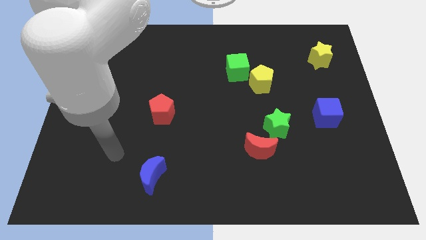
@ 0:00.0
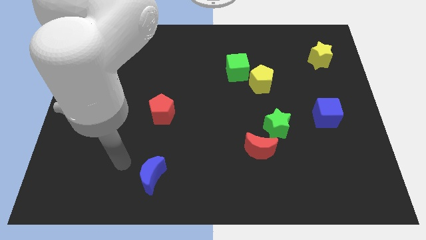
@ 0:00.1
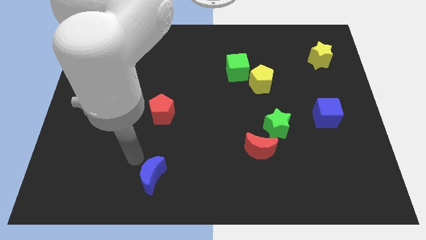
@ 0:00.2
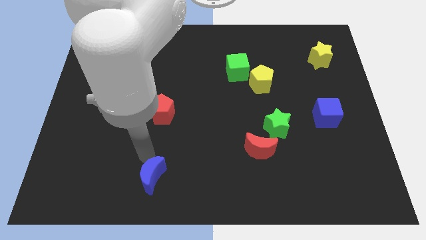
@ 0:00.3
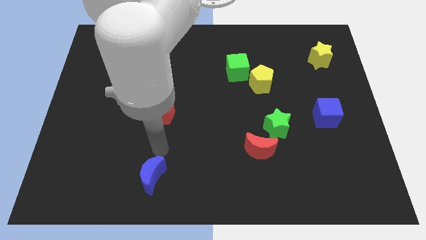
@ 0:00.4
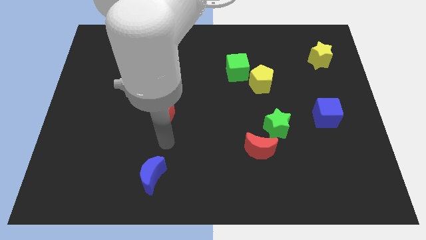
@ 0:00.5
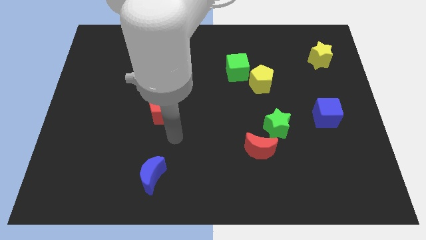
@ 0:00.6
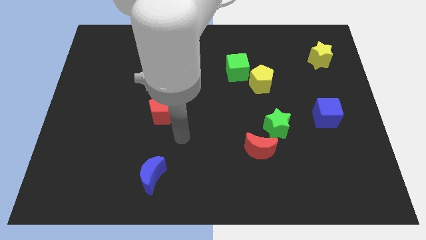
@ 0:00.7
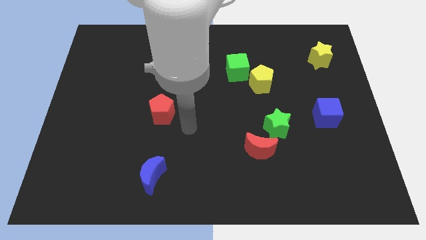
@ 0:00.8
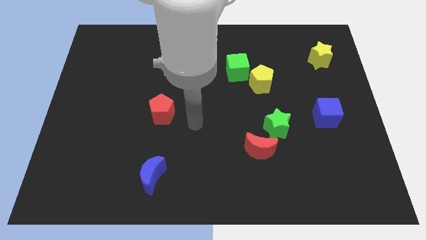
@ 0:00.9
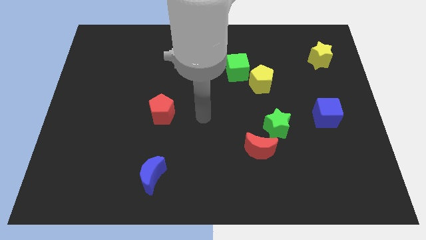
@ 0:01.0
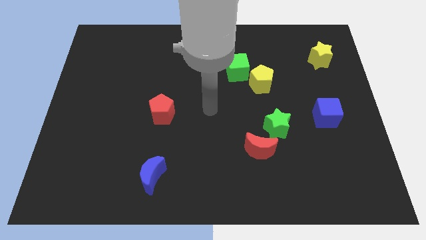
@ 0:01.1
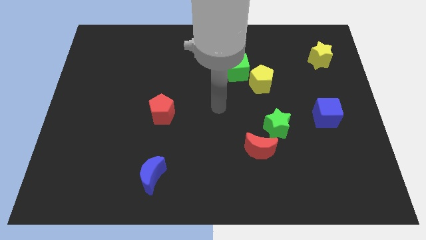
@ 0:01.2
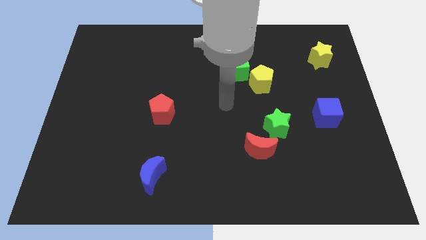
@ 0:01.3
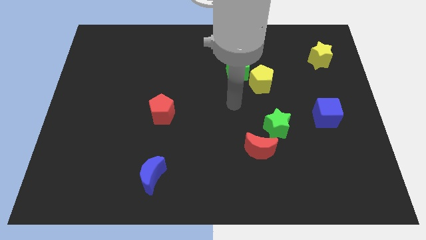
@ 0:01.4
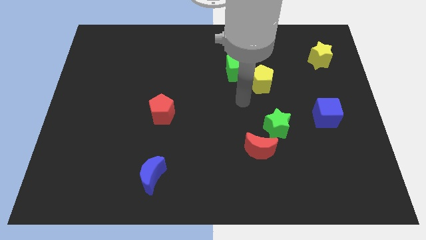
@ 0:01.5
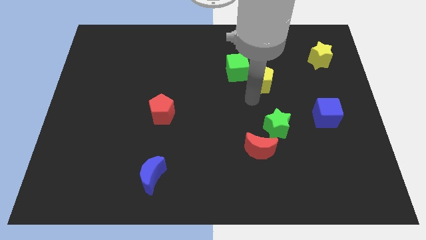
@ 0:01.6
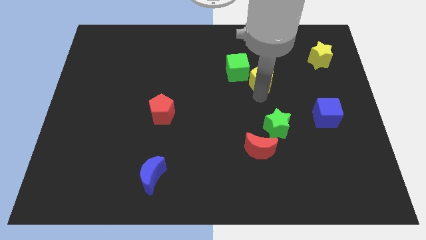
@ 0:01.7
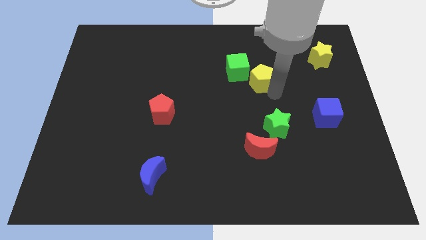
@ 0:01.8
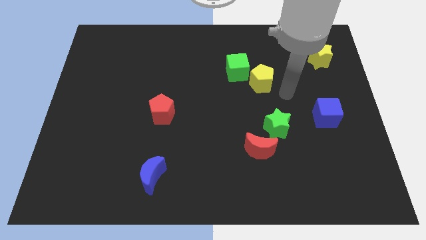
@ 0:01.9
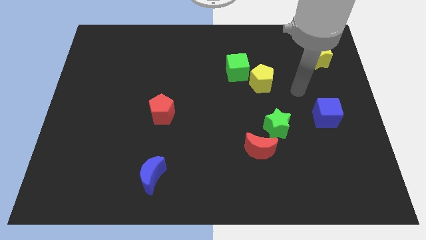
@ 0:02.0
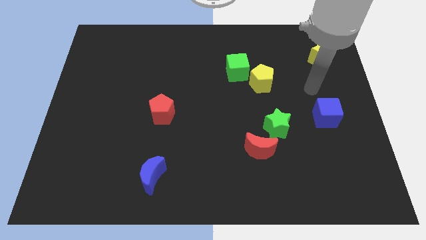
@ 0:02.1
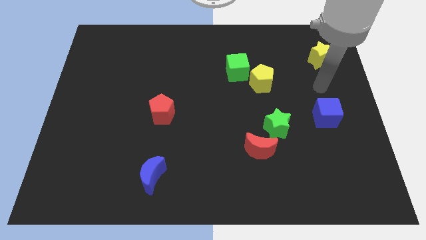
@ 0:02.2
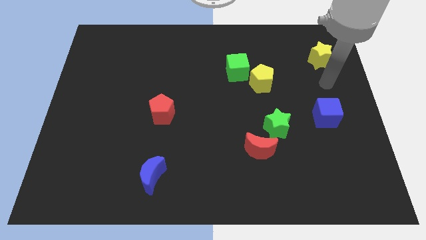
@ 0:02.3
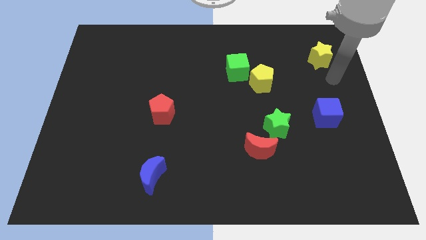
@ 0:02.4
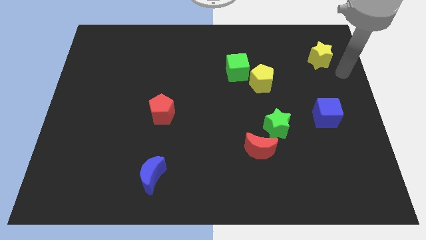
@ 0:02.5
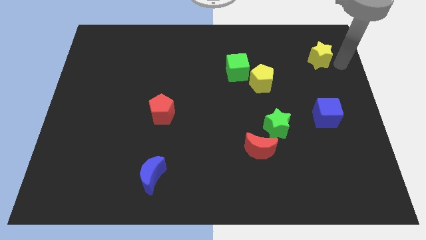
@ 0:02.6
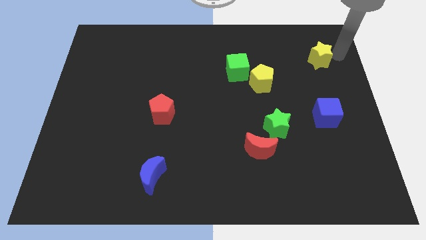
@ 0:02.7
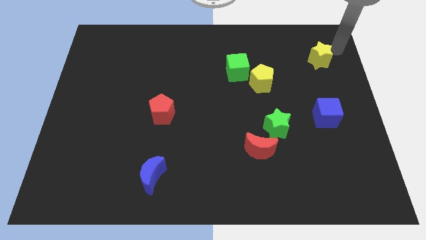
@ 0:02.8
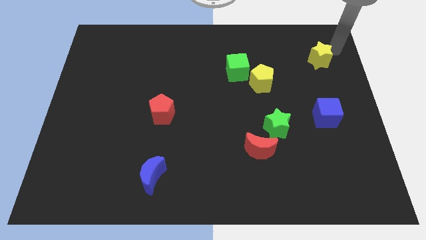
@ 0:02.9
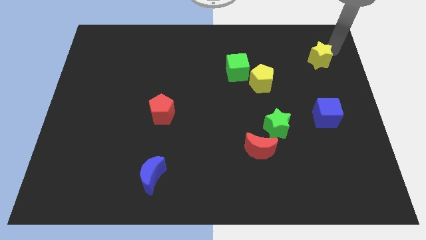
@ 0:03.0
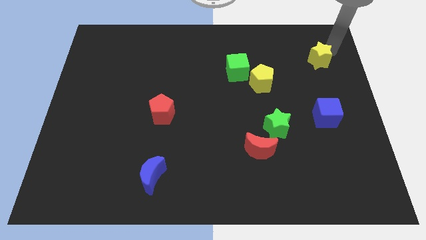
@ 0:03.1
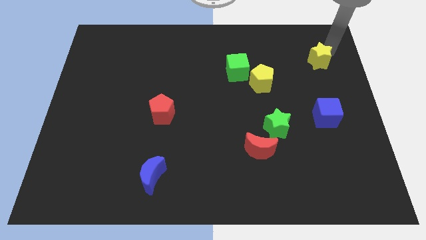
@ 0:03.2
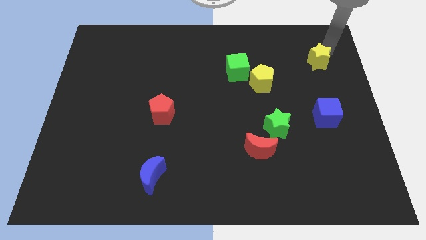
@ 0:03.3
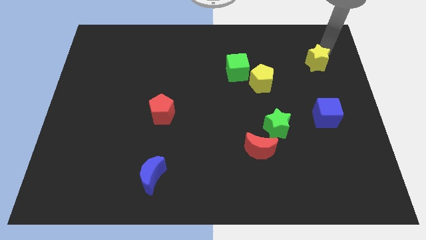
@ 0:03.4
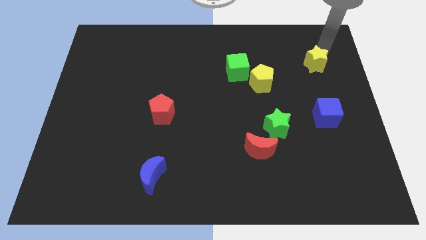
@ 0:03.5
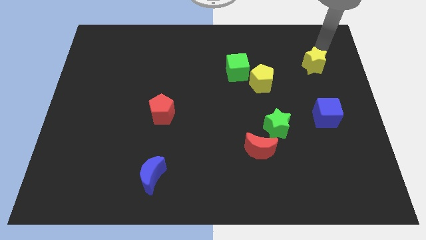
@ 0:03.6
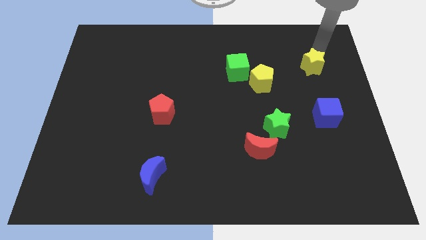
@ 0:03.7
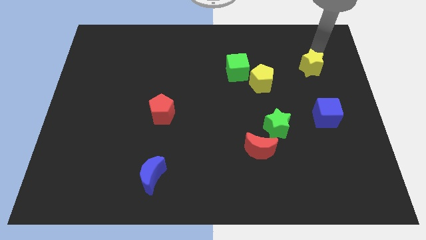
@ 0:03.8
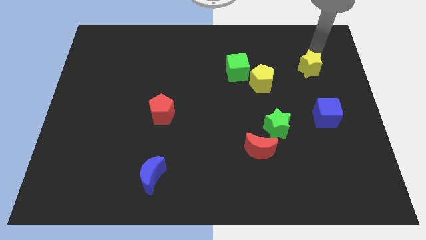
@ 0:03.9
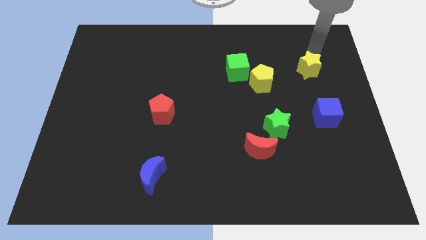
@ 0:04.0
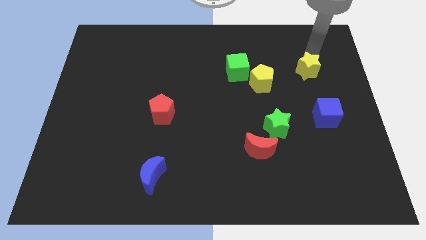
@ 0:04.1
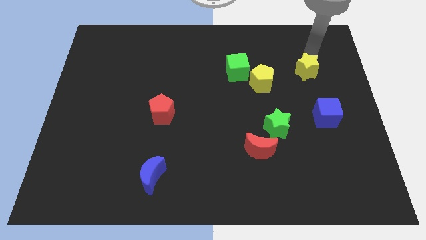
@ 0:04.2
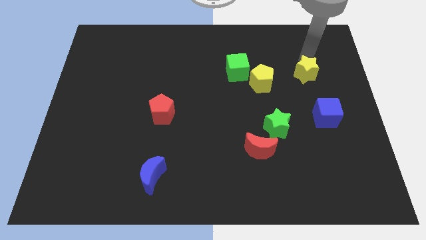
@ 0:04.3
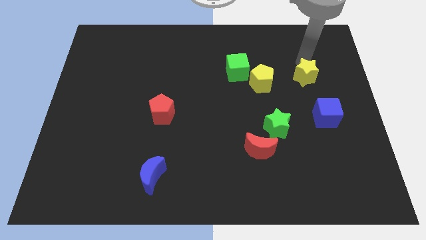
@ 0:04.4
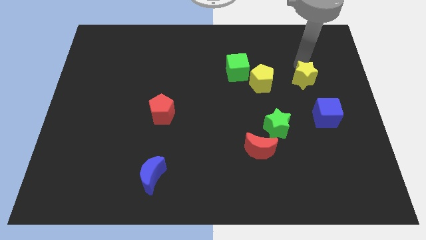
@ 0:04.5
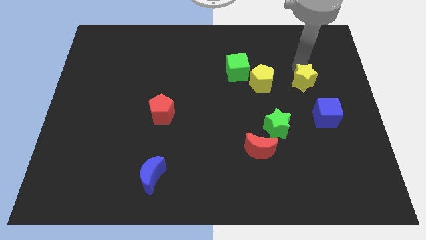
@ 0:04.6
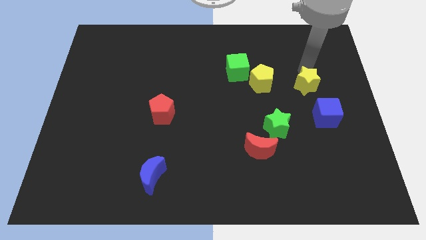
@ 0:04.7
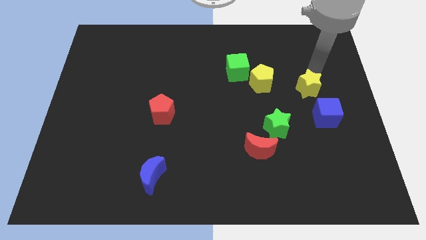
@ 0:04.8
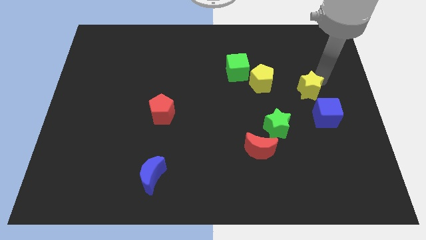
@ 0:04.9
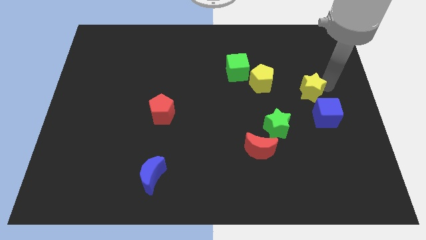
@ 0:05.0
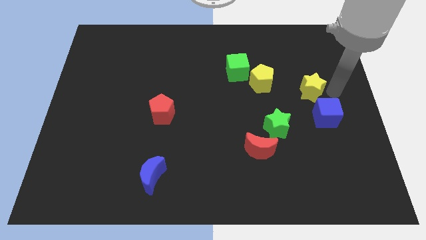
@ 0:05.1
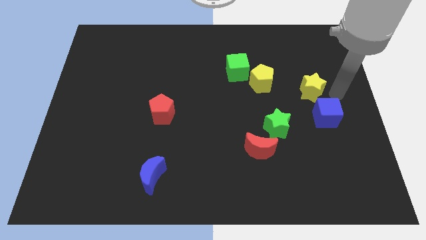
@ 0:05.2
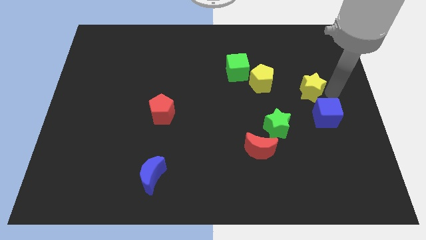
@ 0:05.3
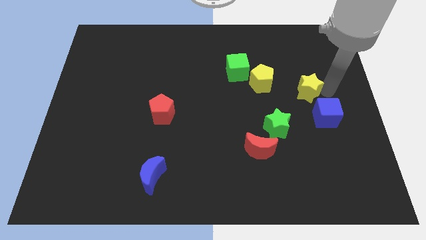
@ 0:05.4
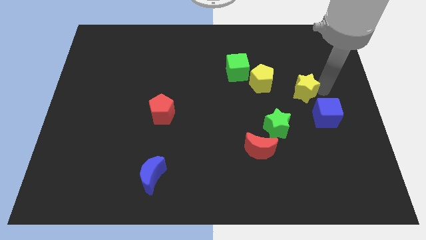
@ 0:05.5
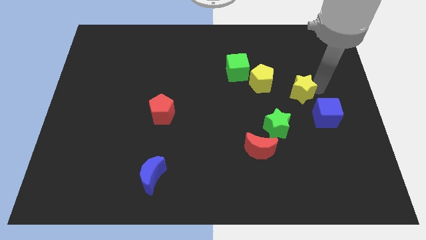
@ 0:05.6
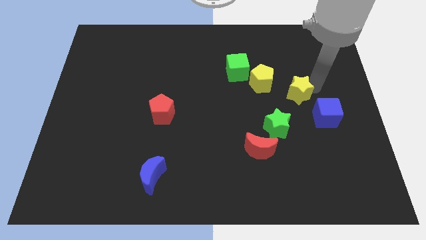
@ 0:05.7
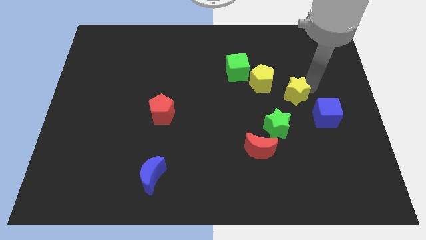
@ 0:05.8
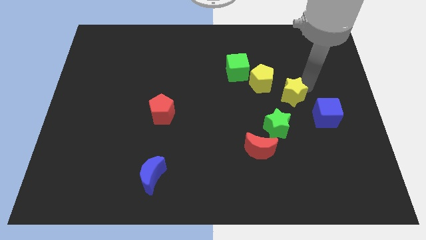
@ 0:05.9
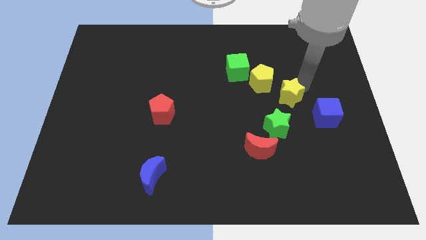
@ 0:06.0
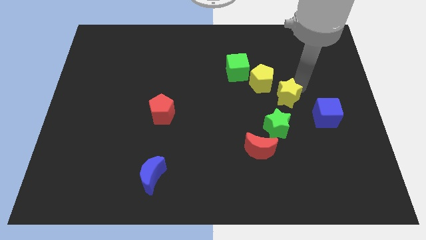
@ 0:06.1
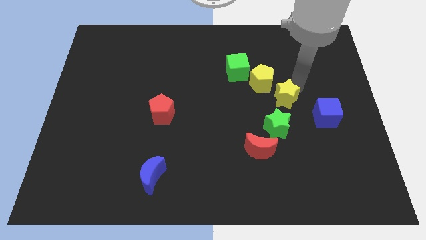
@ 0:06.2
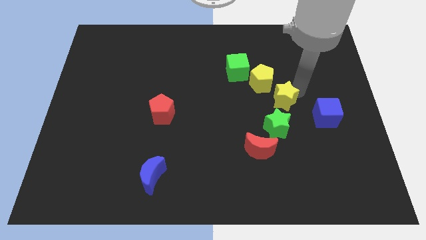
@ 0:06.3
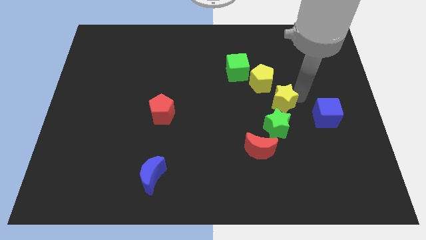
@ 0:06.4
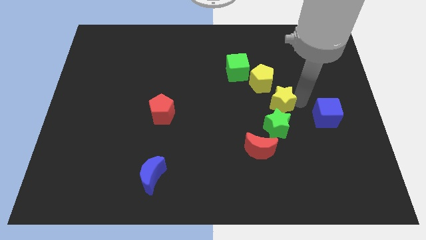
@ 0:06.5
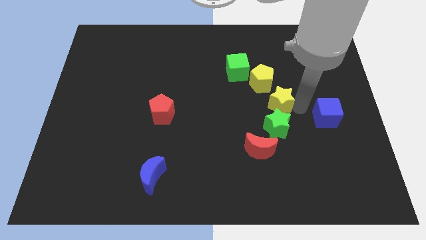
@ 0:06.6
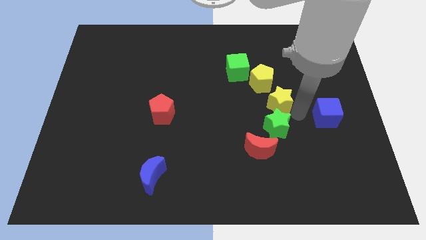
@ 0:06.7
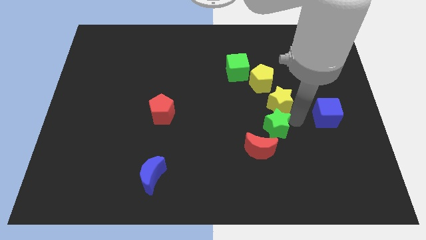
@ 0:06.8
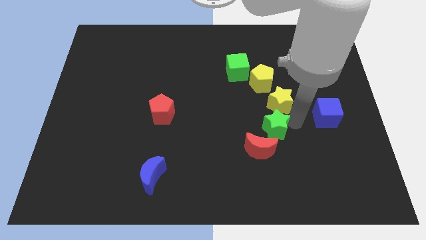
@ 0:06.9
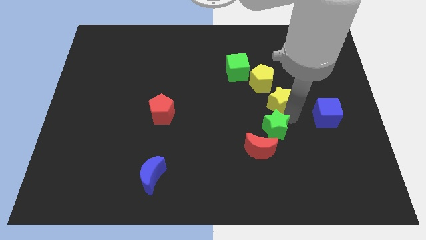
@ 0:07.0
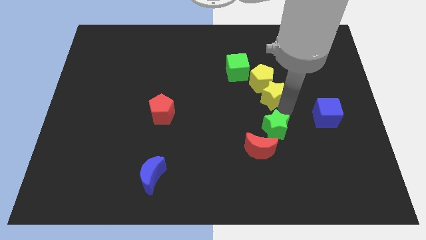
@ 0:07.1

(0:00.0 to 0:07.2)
push the yellow star to the yellow pentagon
